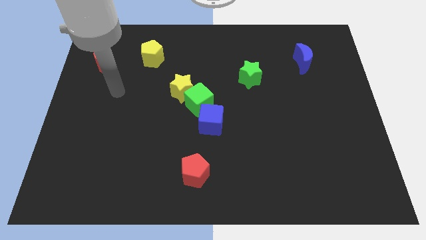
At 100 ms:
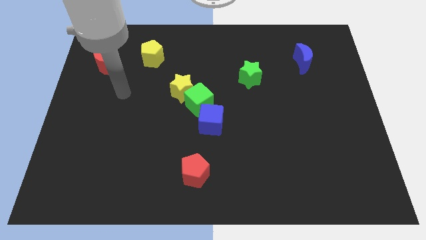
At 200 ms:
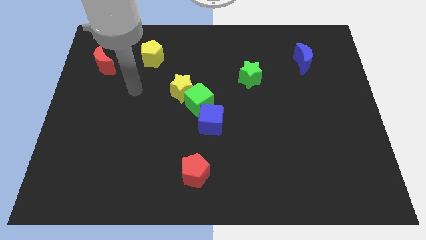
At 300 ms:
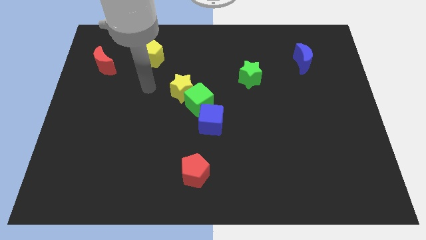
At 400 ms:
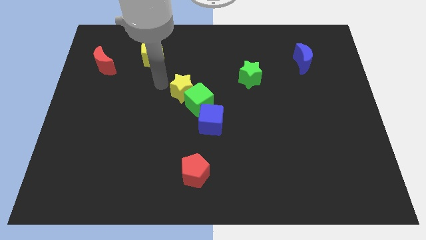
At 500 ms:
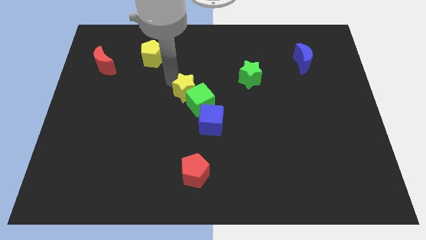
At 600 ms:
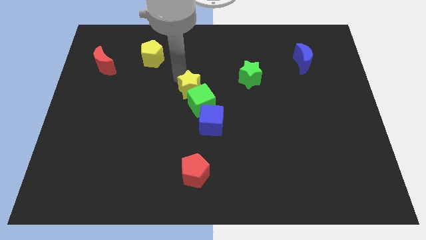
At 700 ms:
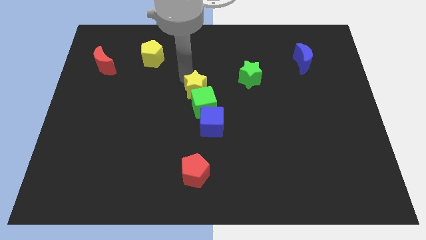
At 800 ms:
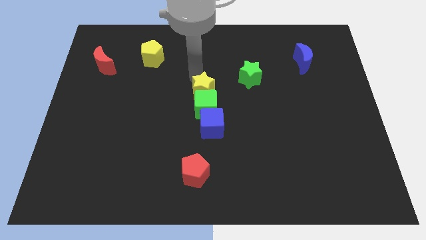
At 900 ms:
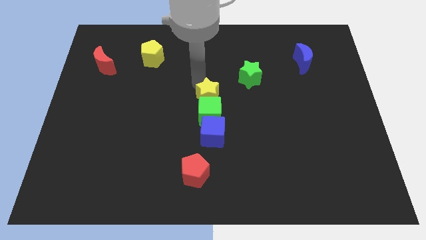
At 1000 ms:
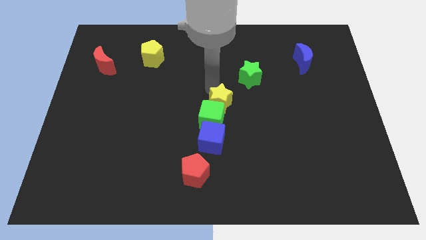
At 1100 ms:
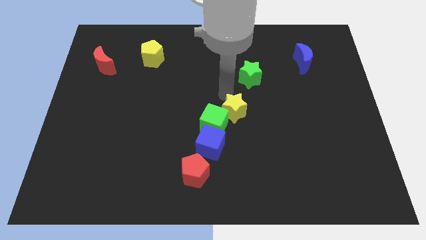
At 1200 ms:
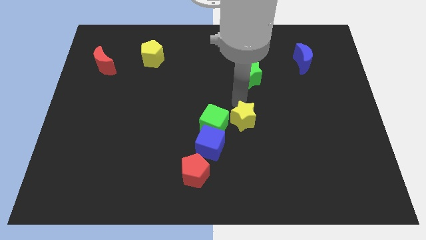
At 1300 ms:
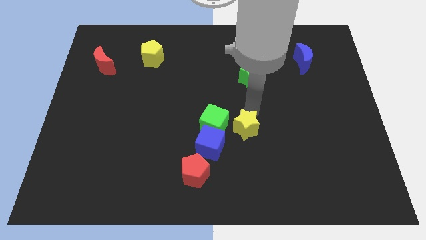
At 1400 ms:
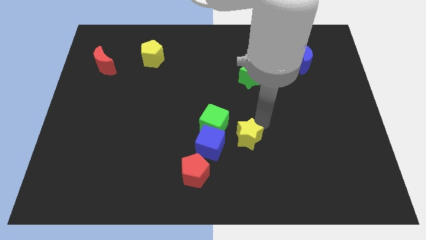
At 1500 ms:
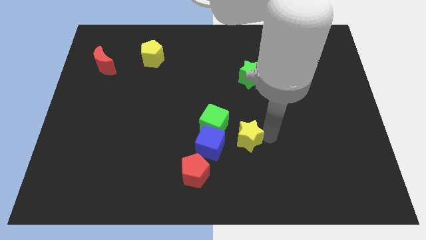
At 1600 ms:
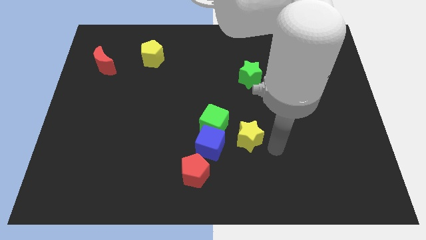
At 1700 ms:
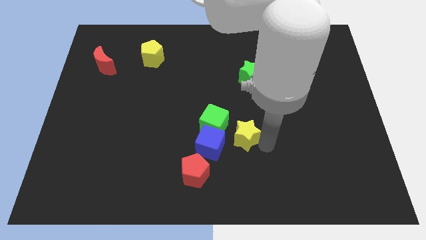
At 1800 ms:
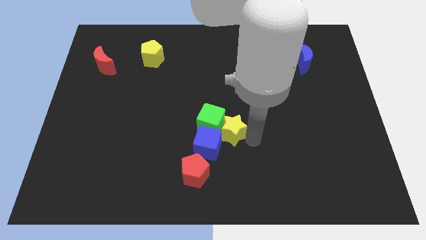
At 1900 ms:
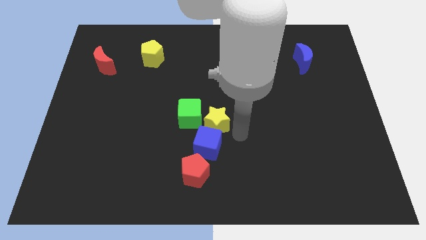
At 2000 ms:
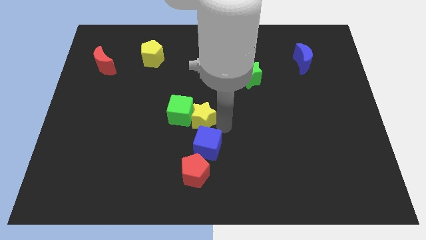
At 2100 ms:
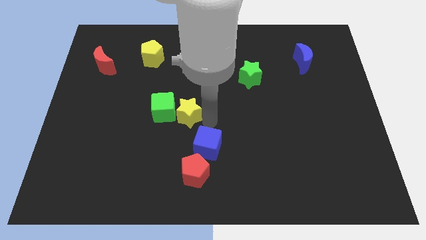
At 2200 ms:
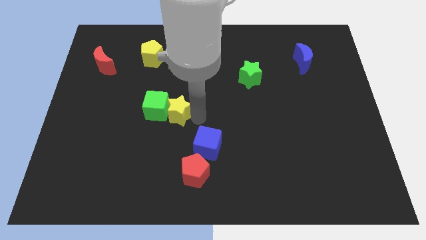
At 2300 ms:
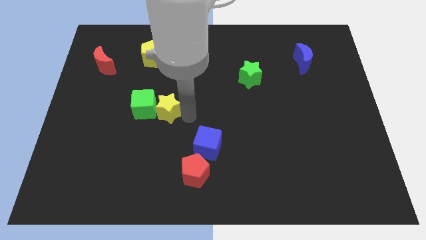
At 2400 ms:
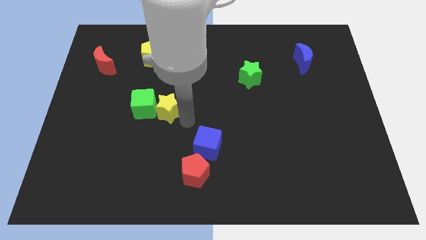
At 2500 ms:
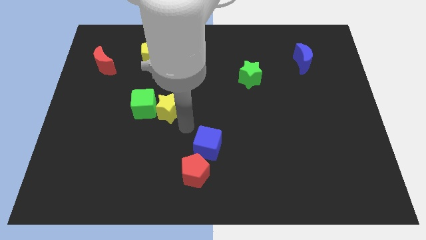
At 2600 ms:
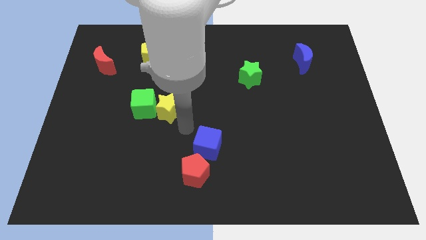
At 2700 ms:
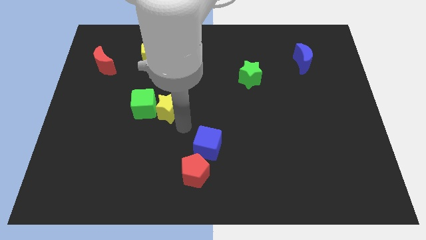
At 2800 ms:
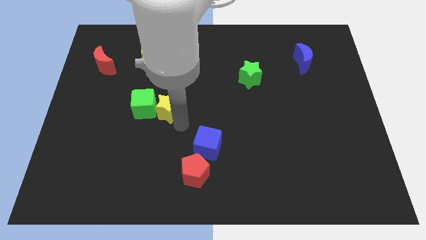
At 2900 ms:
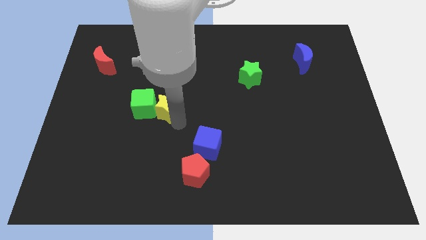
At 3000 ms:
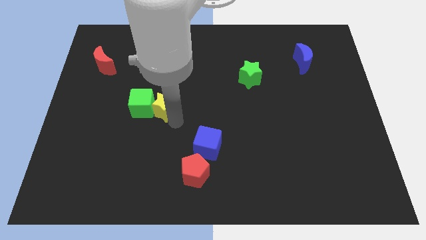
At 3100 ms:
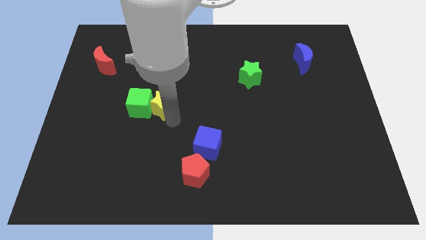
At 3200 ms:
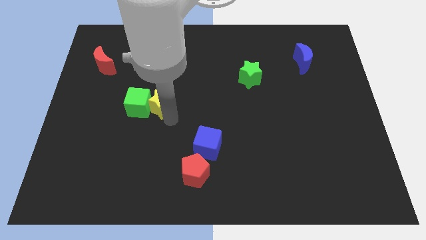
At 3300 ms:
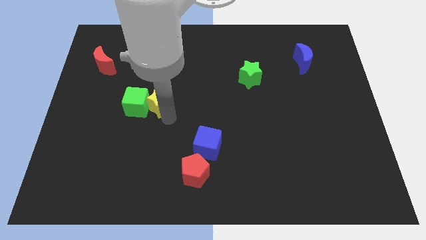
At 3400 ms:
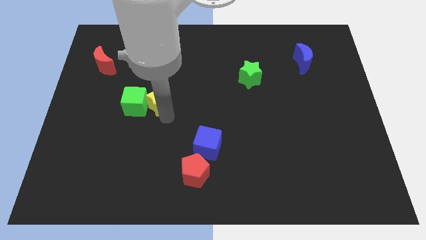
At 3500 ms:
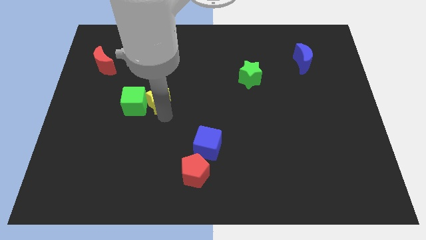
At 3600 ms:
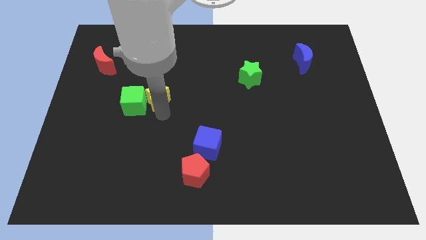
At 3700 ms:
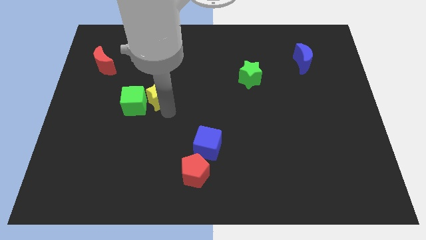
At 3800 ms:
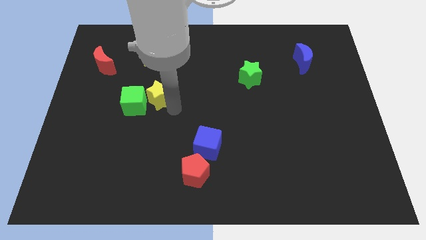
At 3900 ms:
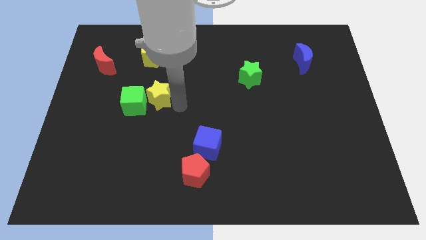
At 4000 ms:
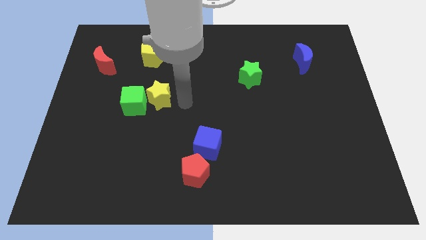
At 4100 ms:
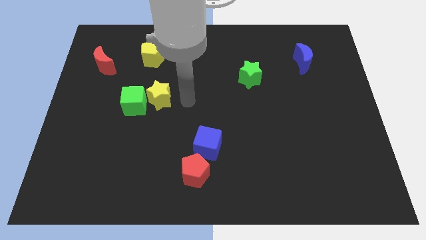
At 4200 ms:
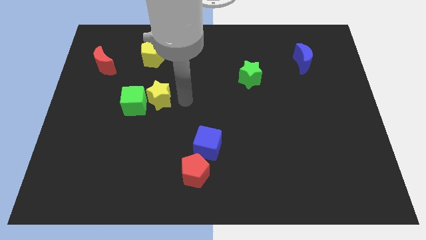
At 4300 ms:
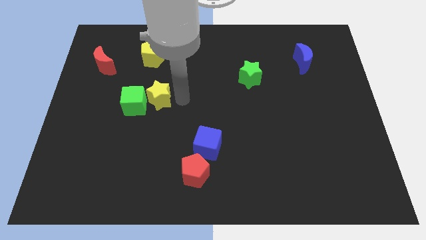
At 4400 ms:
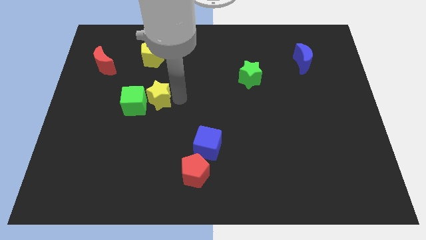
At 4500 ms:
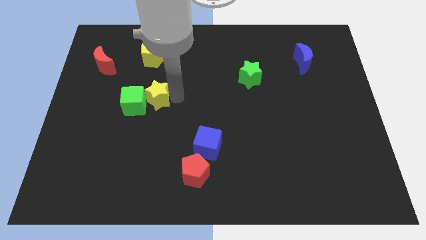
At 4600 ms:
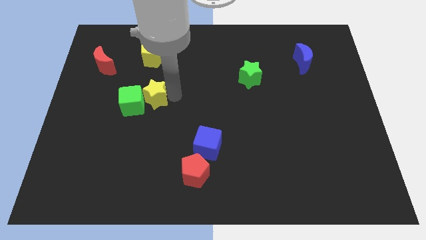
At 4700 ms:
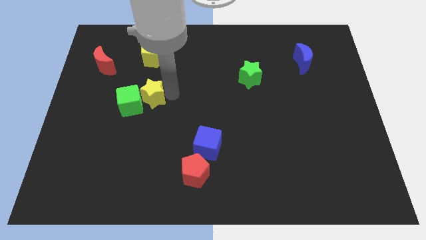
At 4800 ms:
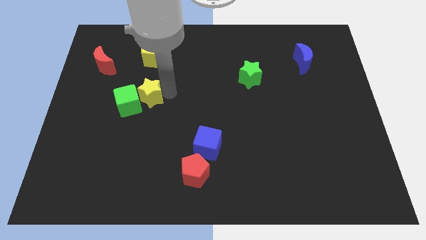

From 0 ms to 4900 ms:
slide the yellow star slightly left

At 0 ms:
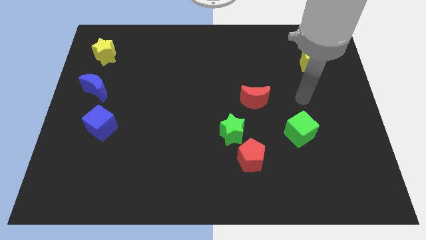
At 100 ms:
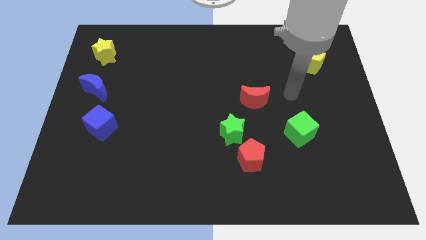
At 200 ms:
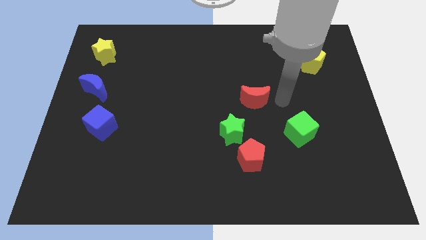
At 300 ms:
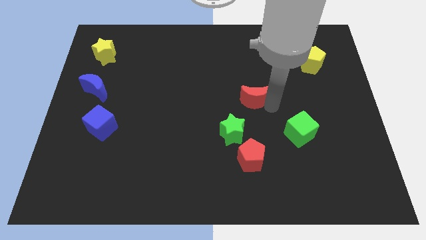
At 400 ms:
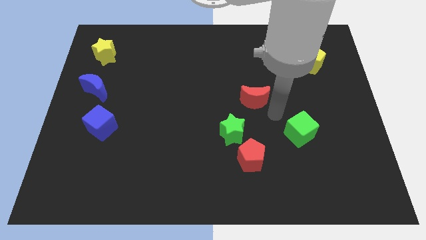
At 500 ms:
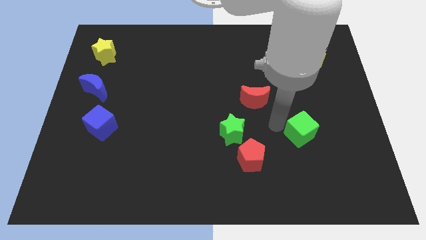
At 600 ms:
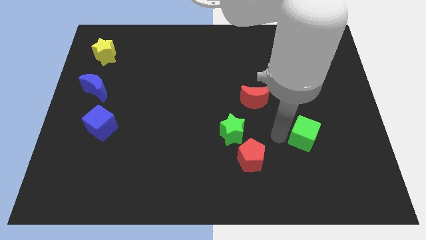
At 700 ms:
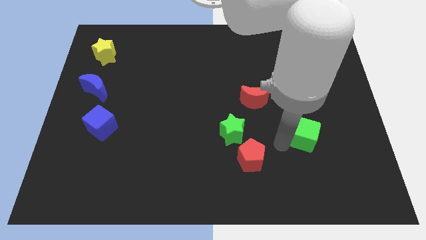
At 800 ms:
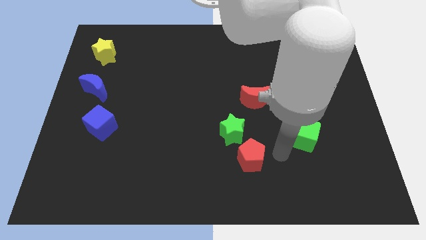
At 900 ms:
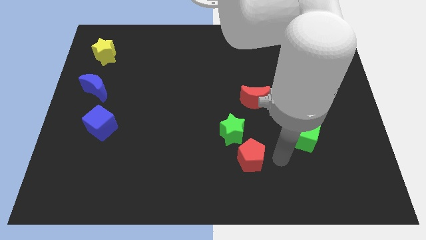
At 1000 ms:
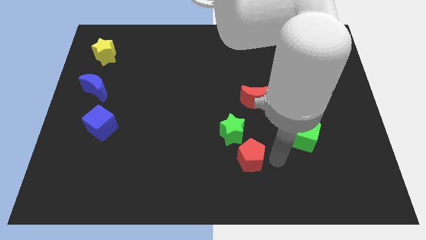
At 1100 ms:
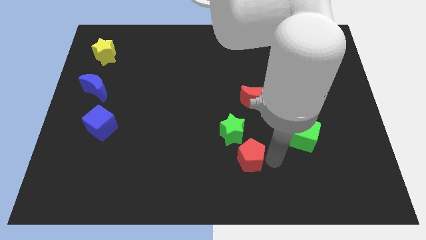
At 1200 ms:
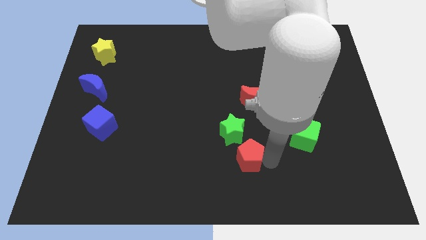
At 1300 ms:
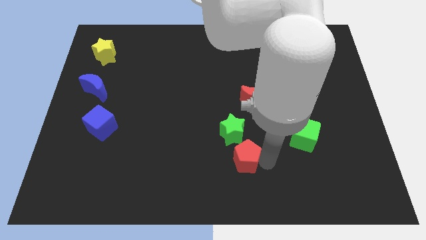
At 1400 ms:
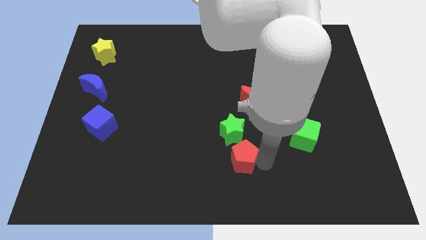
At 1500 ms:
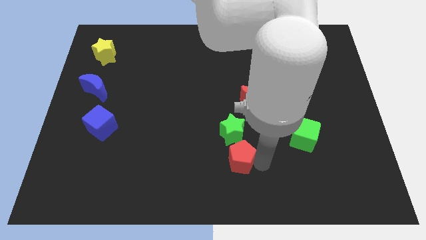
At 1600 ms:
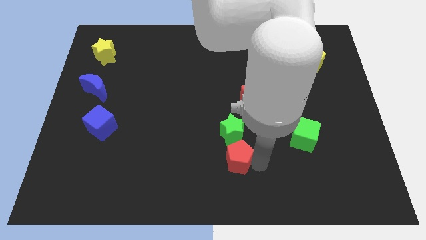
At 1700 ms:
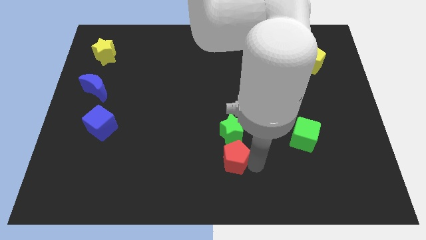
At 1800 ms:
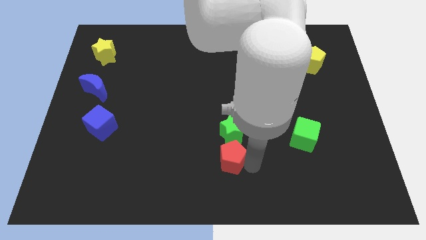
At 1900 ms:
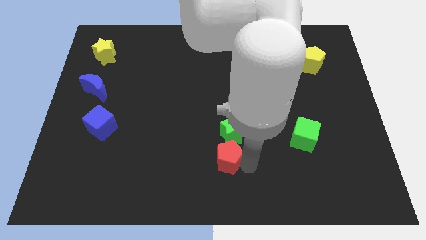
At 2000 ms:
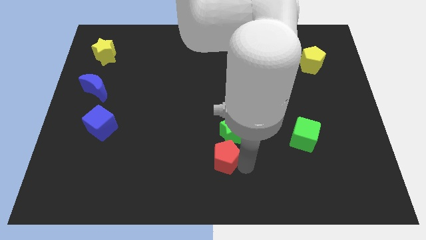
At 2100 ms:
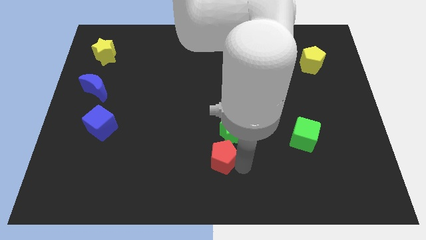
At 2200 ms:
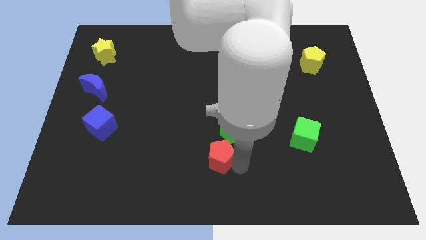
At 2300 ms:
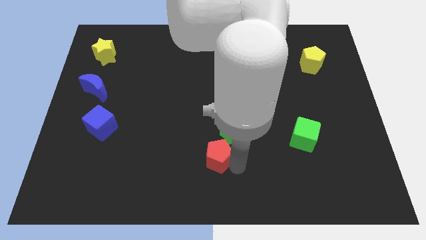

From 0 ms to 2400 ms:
push the red pentagon left a little

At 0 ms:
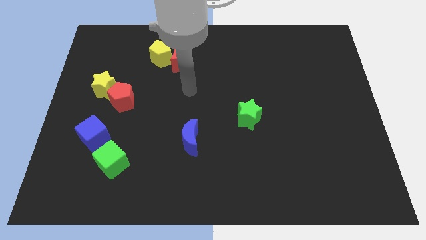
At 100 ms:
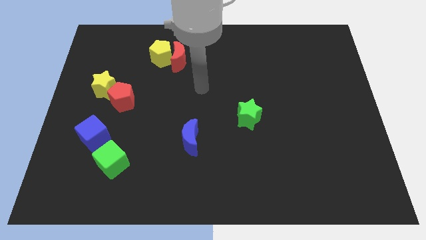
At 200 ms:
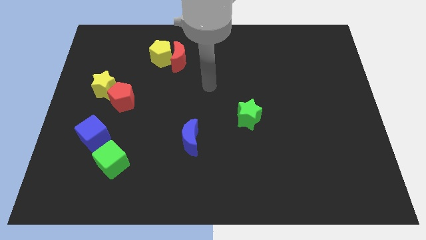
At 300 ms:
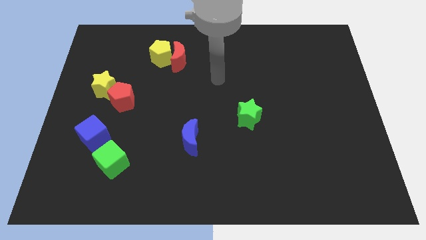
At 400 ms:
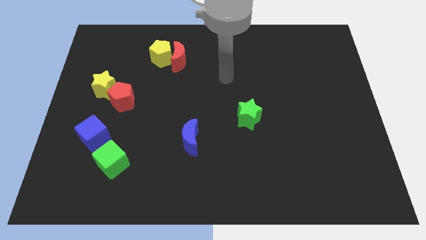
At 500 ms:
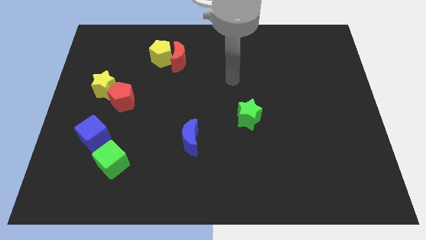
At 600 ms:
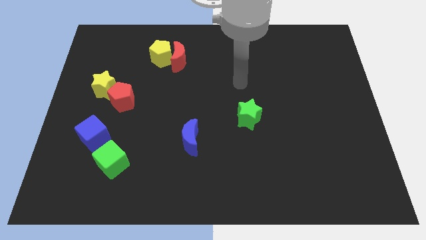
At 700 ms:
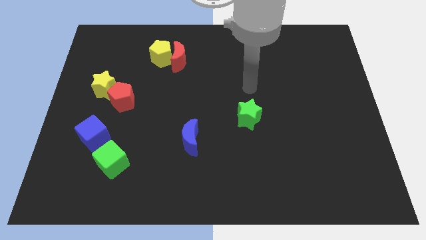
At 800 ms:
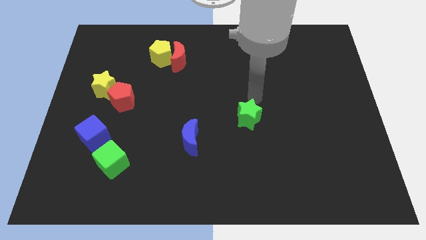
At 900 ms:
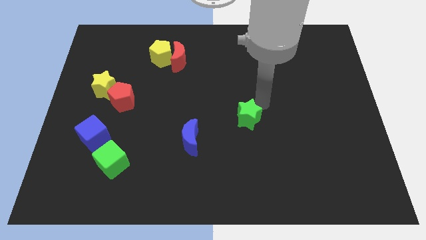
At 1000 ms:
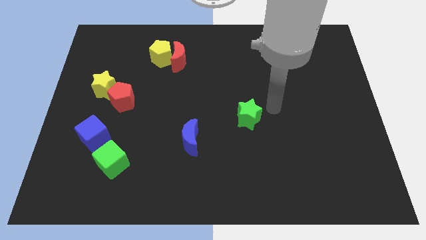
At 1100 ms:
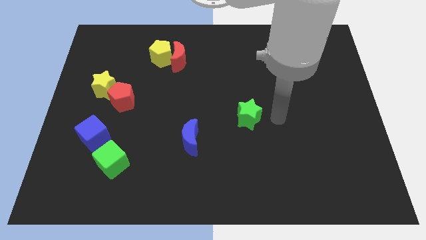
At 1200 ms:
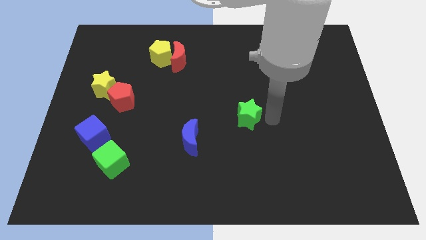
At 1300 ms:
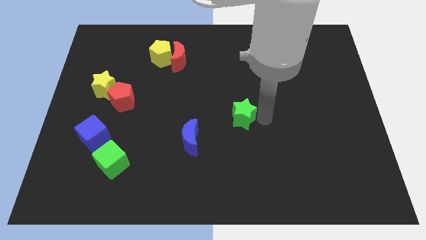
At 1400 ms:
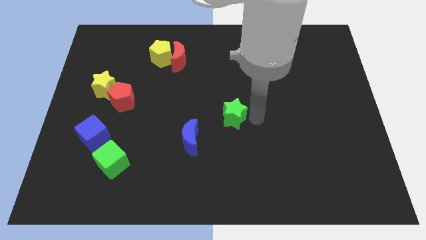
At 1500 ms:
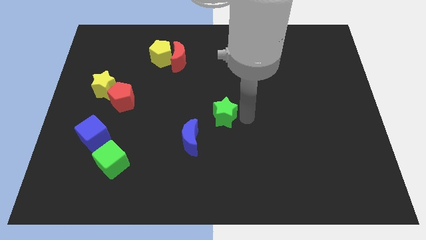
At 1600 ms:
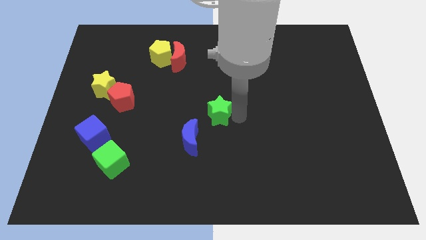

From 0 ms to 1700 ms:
push the green star to the left somewhat
